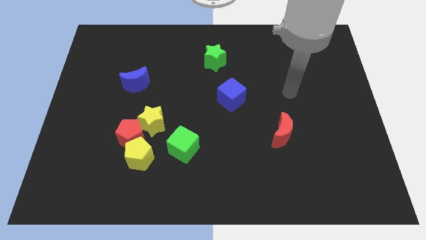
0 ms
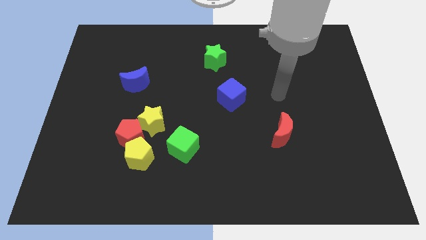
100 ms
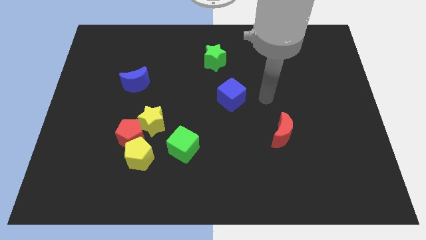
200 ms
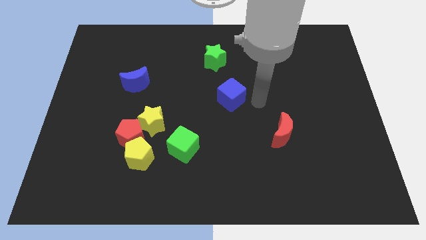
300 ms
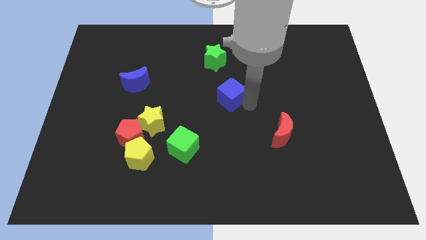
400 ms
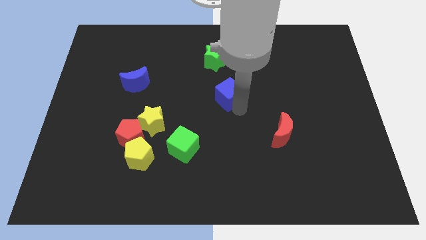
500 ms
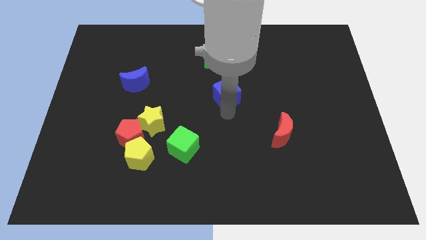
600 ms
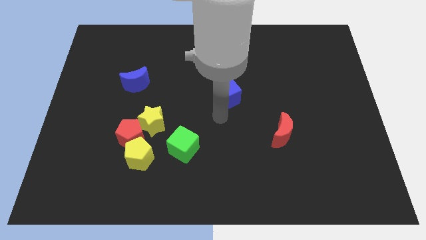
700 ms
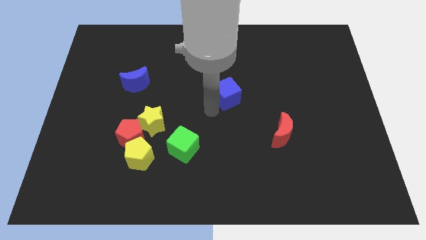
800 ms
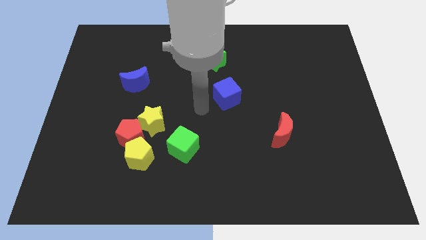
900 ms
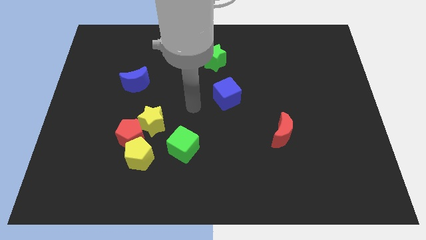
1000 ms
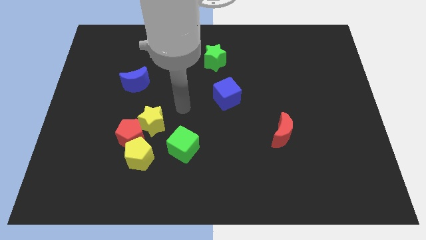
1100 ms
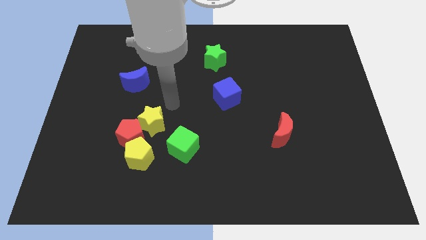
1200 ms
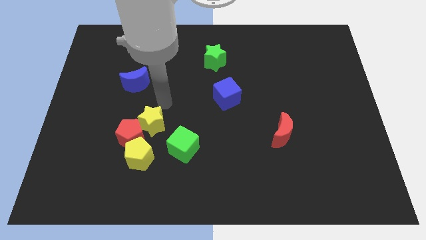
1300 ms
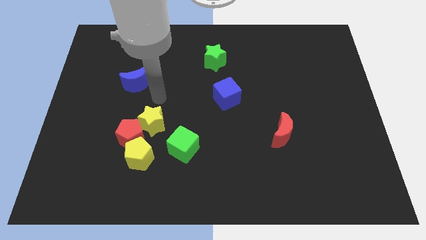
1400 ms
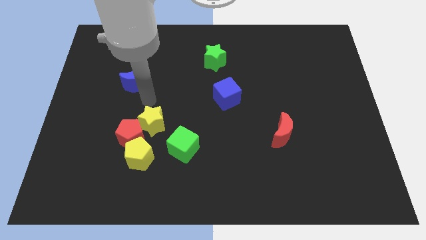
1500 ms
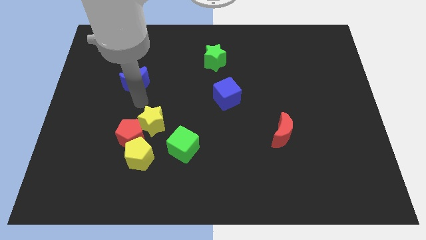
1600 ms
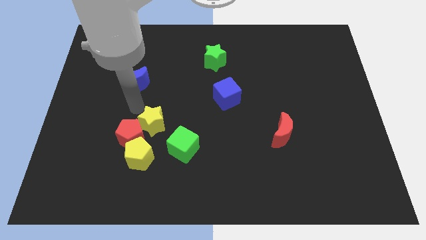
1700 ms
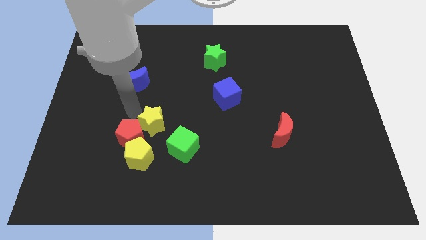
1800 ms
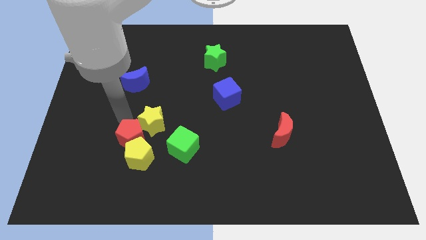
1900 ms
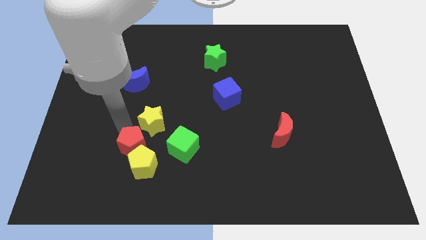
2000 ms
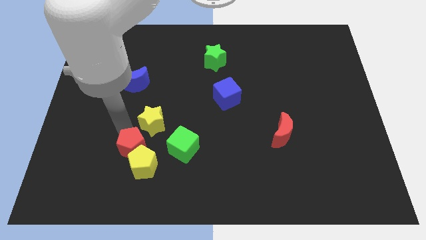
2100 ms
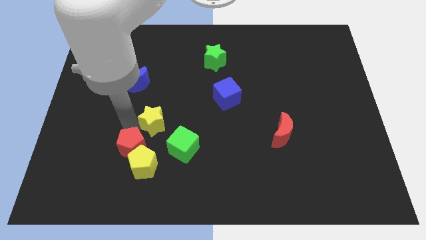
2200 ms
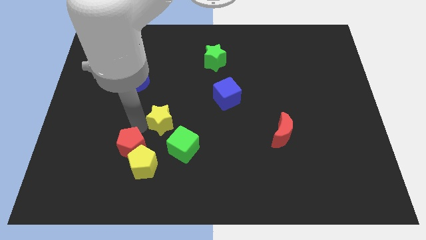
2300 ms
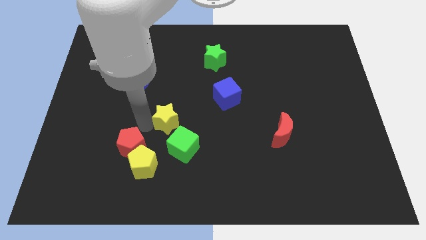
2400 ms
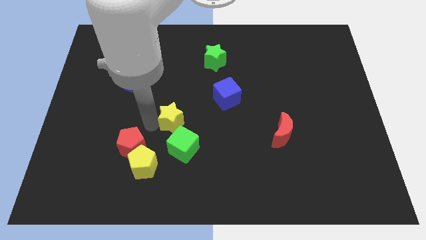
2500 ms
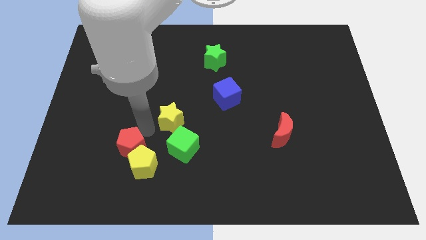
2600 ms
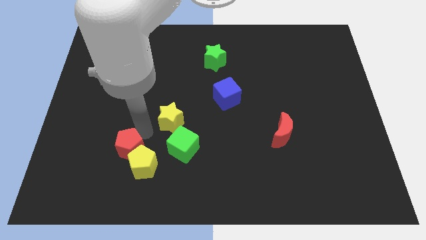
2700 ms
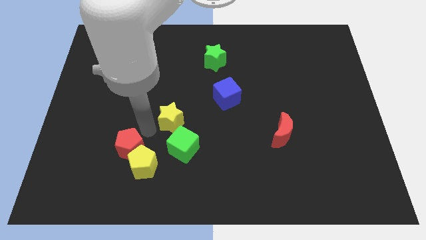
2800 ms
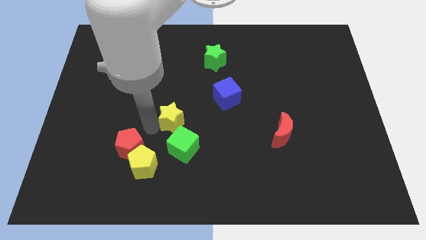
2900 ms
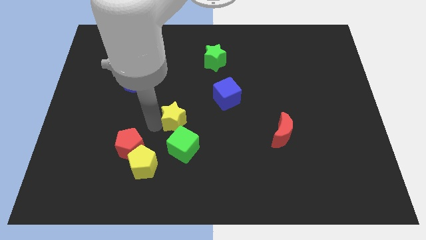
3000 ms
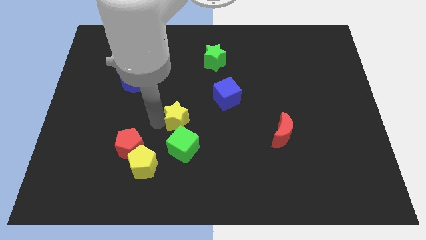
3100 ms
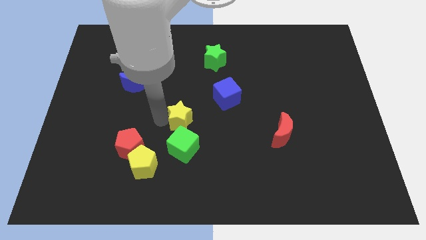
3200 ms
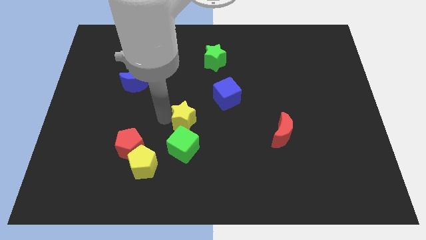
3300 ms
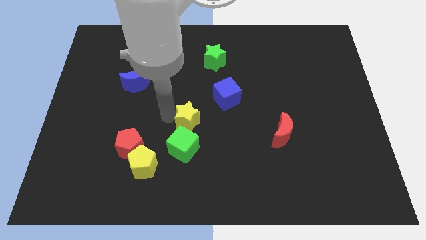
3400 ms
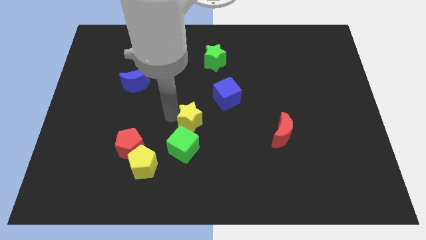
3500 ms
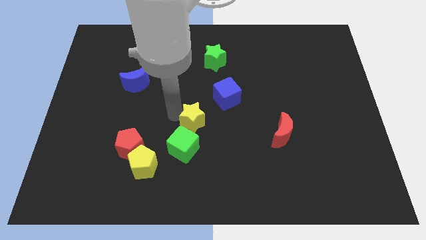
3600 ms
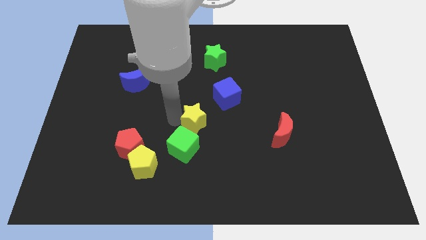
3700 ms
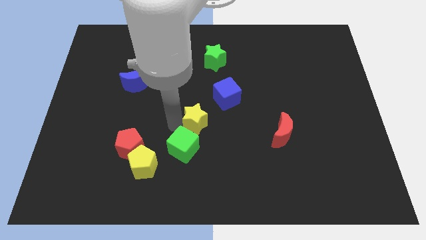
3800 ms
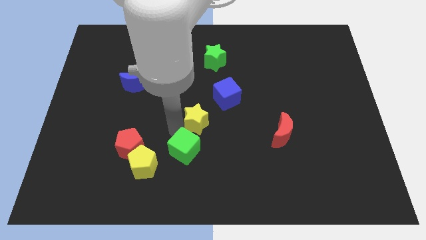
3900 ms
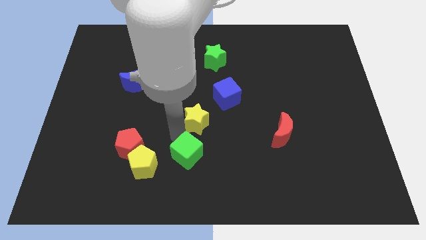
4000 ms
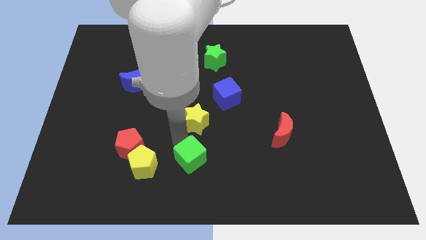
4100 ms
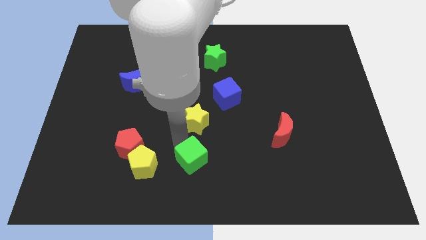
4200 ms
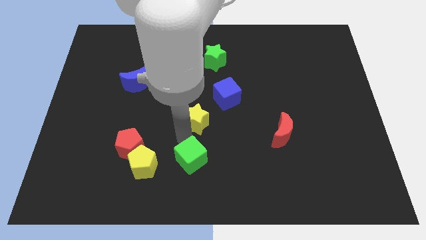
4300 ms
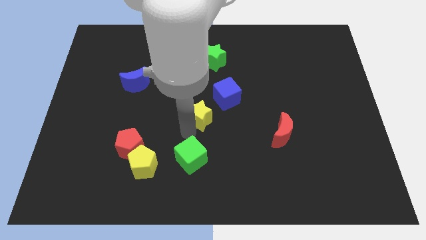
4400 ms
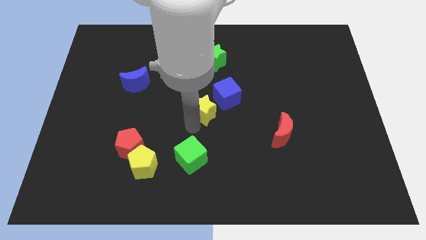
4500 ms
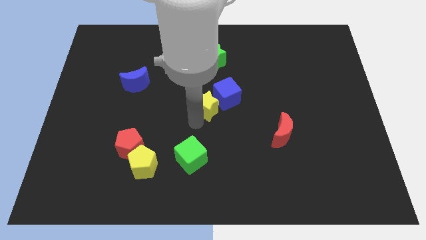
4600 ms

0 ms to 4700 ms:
push the yellow star towards the blue cube

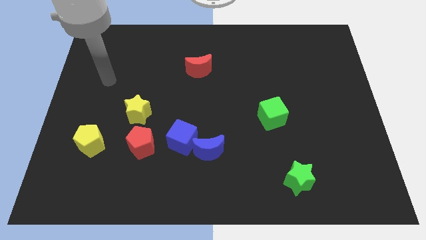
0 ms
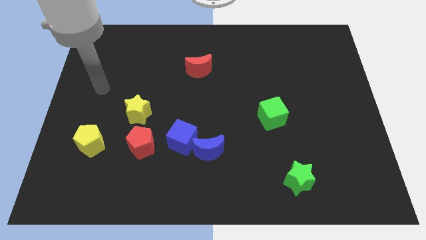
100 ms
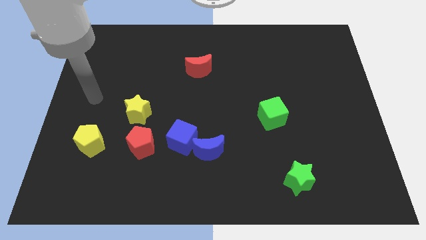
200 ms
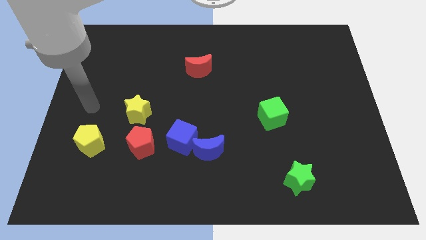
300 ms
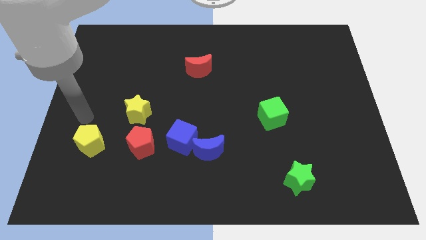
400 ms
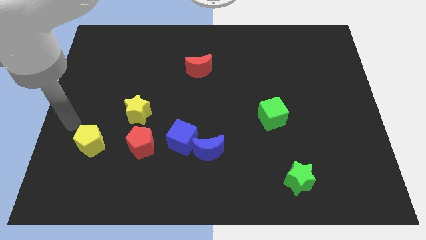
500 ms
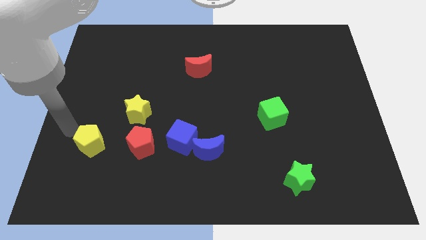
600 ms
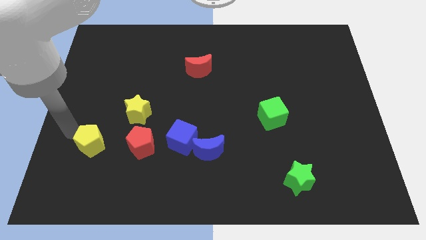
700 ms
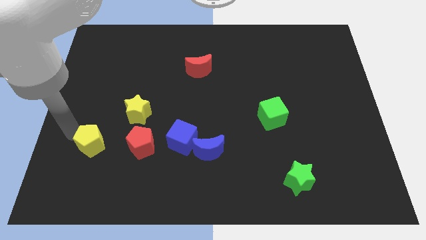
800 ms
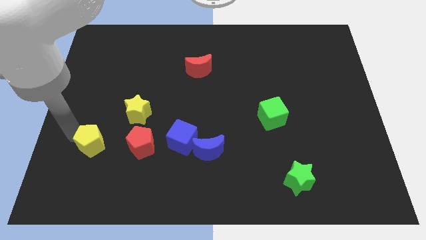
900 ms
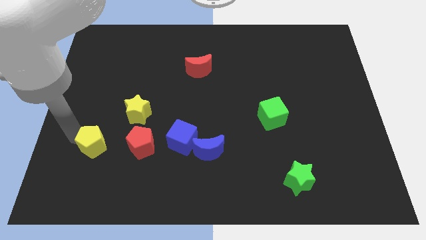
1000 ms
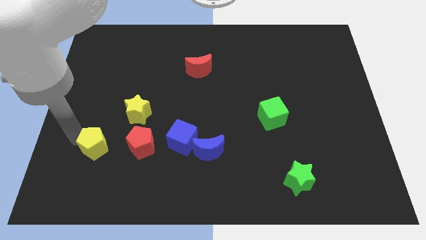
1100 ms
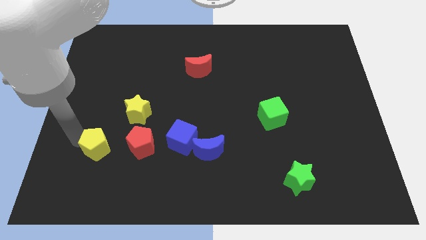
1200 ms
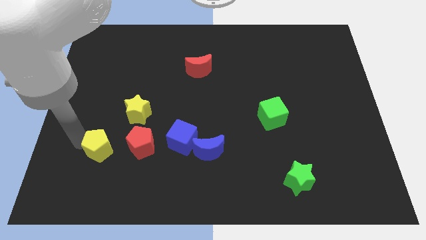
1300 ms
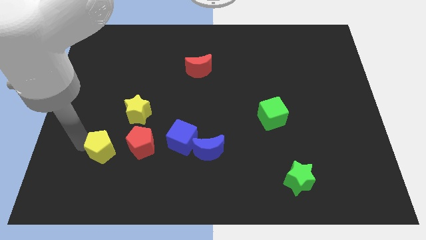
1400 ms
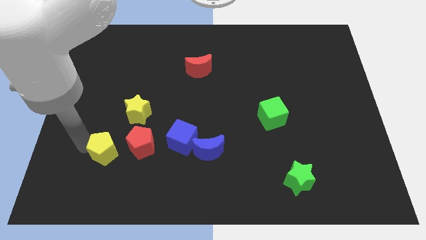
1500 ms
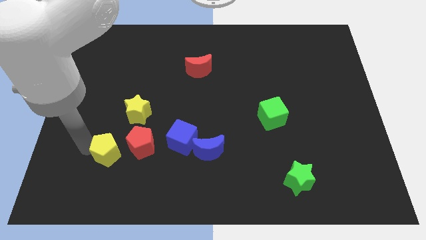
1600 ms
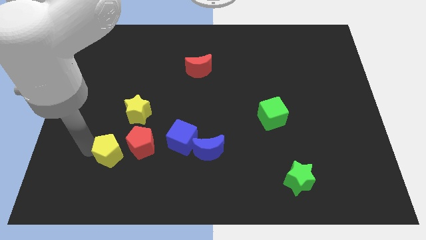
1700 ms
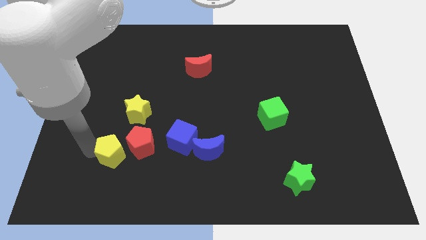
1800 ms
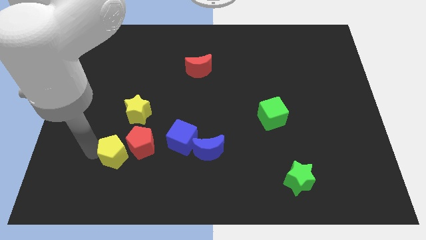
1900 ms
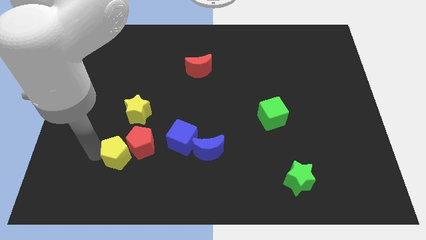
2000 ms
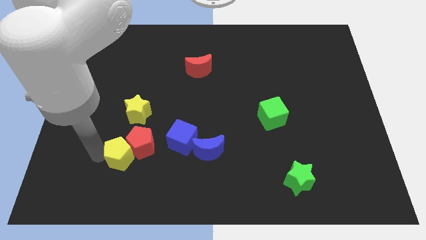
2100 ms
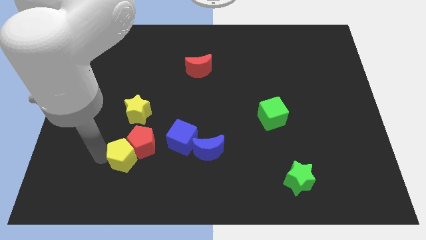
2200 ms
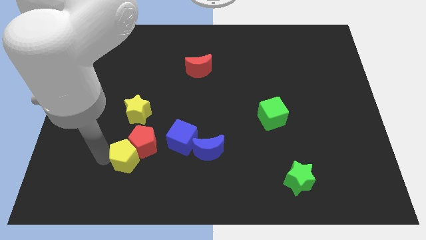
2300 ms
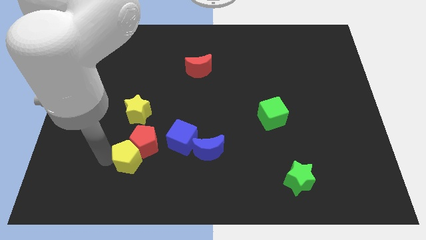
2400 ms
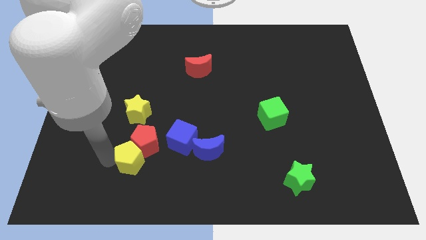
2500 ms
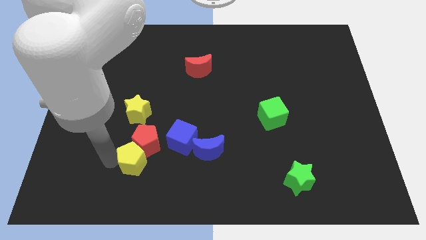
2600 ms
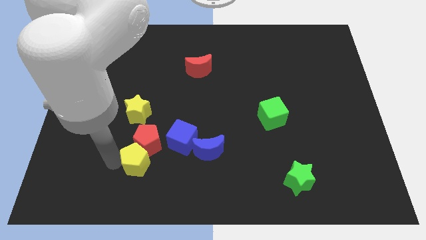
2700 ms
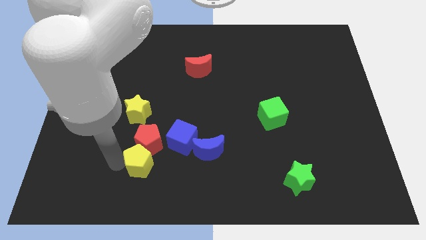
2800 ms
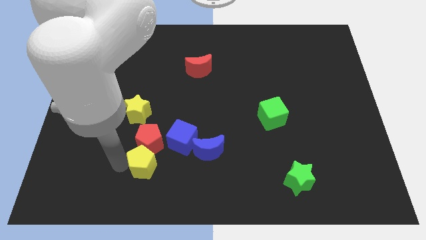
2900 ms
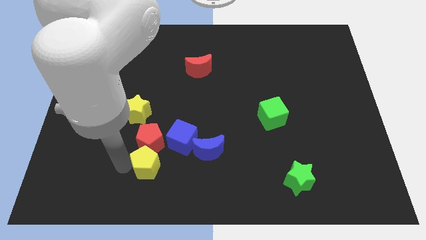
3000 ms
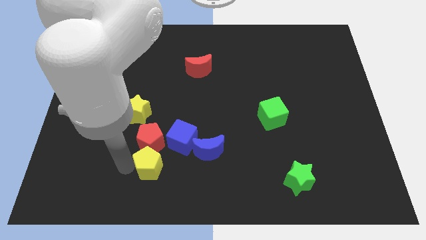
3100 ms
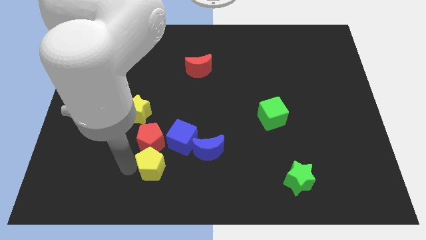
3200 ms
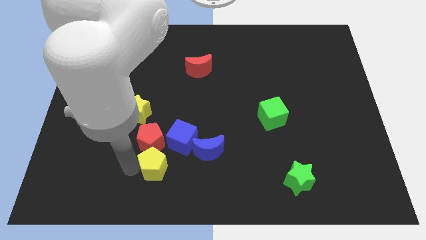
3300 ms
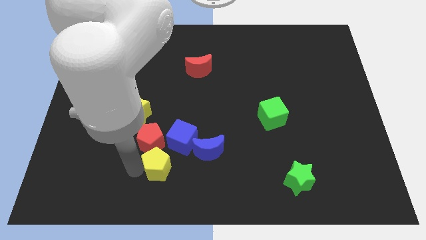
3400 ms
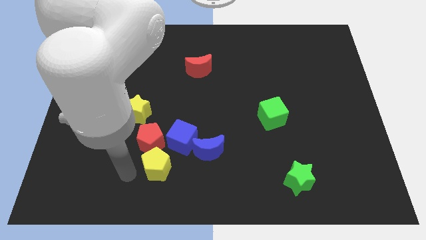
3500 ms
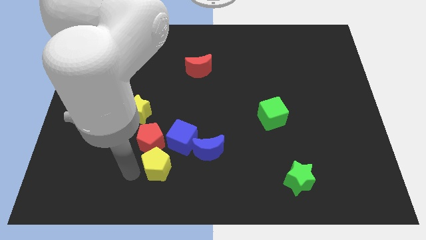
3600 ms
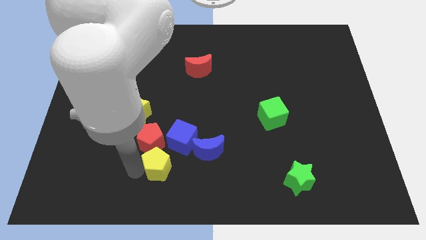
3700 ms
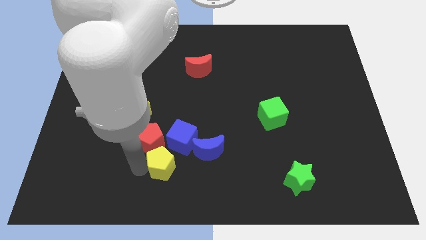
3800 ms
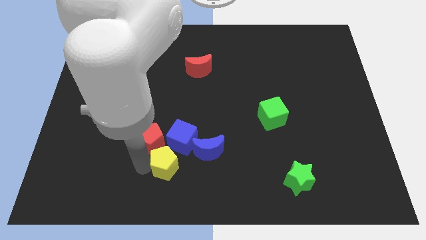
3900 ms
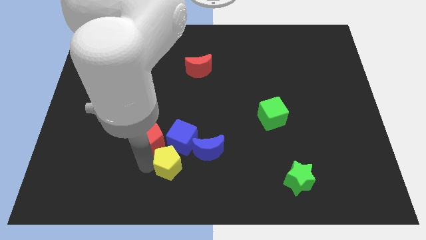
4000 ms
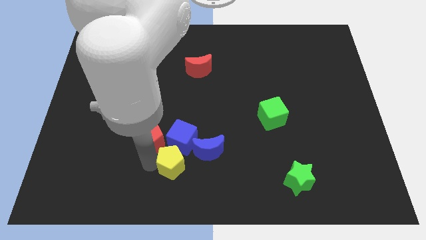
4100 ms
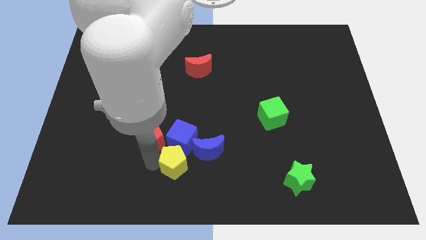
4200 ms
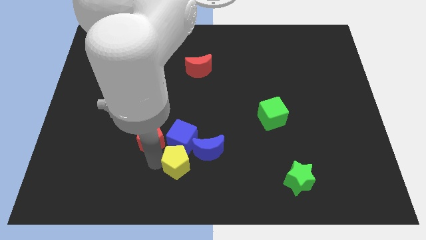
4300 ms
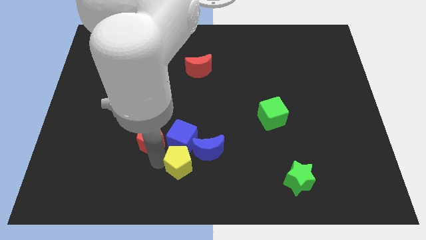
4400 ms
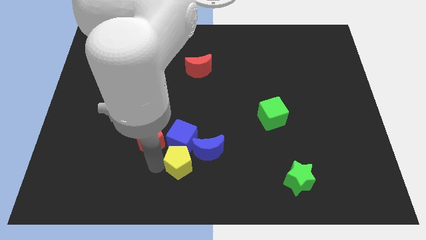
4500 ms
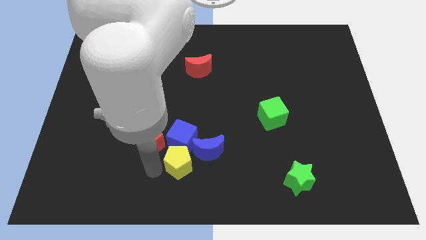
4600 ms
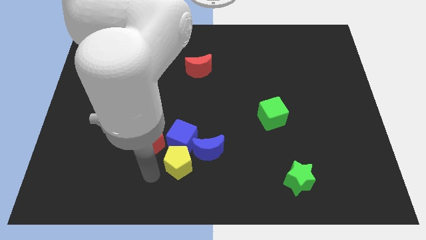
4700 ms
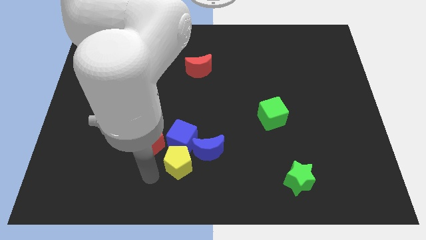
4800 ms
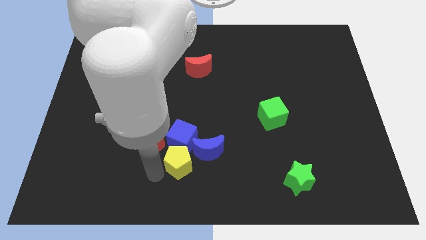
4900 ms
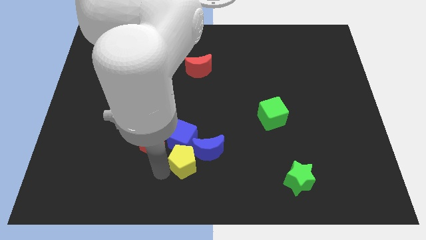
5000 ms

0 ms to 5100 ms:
move the yellow pentagon next to the blue moon
